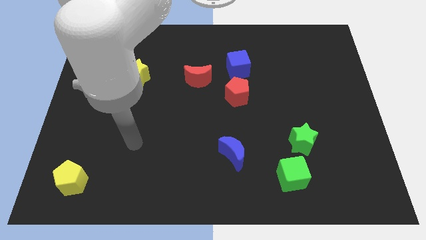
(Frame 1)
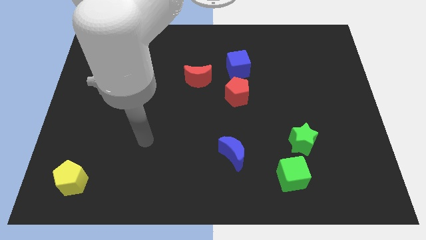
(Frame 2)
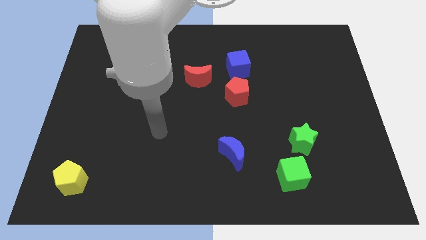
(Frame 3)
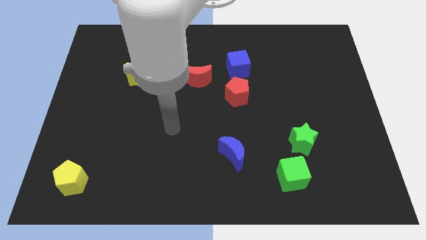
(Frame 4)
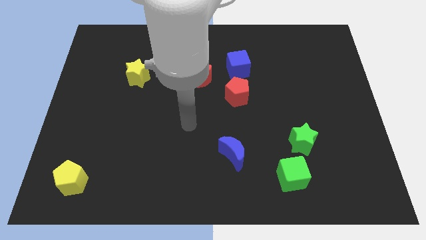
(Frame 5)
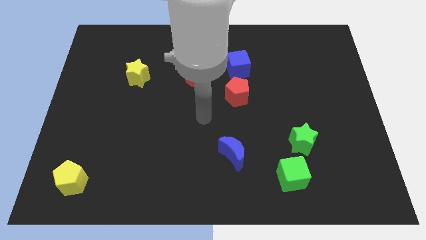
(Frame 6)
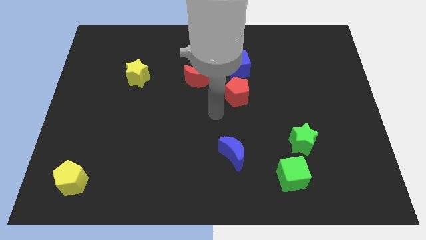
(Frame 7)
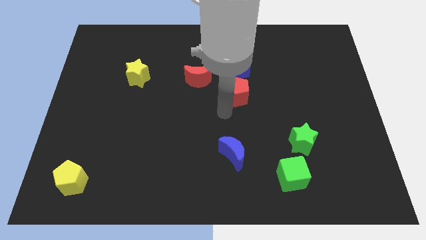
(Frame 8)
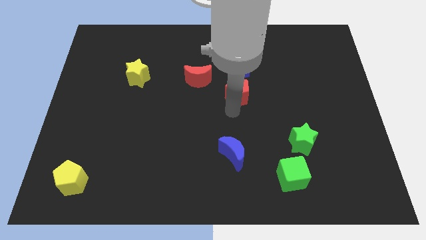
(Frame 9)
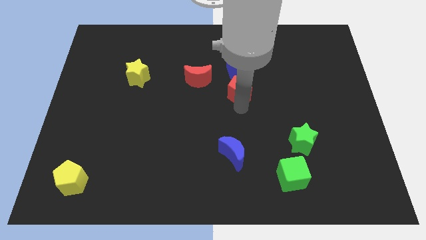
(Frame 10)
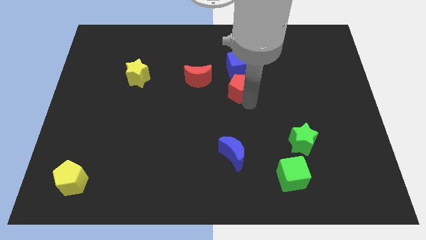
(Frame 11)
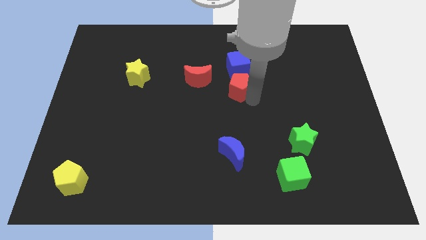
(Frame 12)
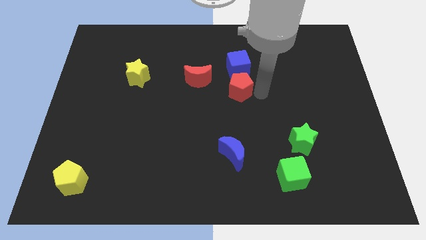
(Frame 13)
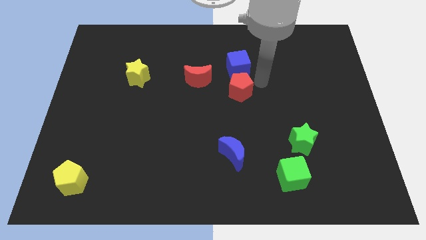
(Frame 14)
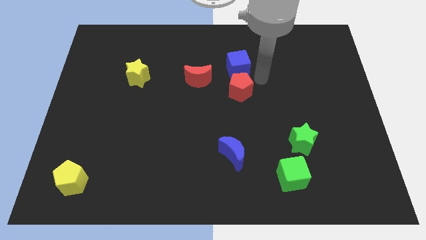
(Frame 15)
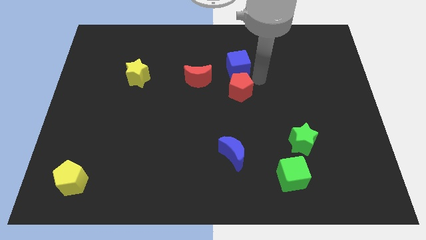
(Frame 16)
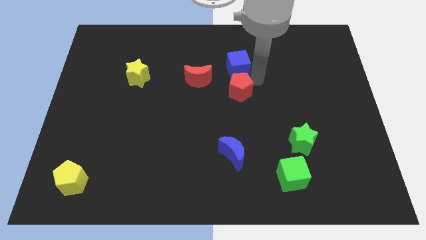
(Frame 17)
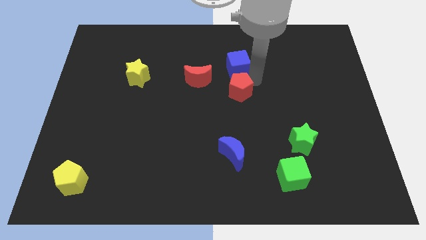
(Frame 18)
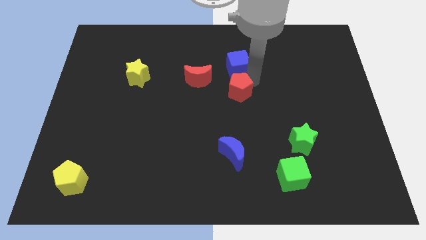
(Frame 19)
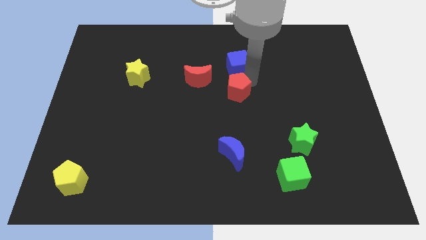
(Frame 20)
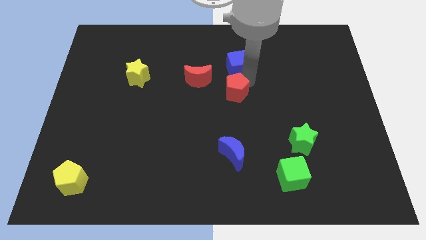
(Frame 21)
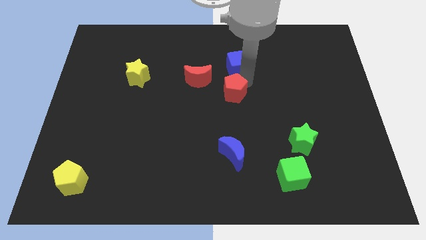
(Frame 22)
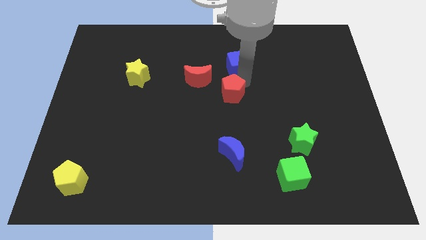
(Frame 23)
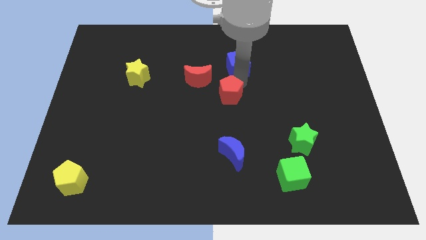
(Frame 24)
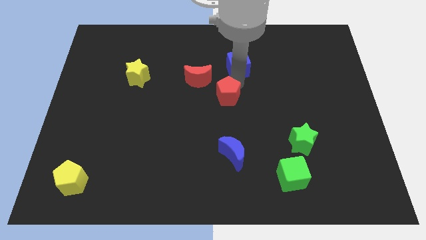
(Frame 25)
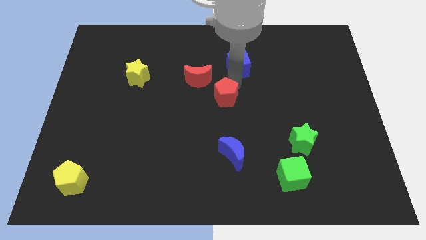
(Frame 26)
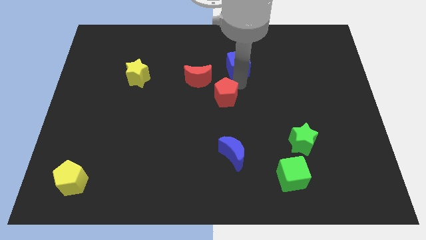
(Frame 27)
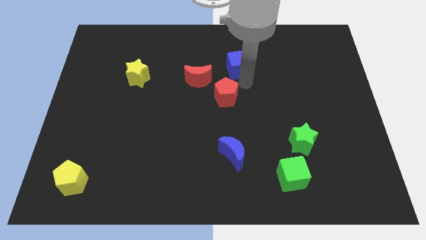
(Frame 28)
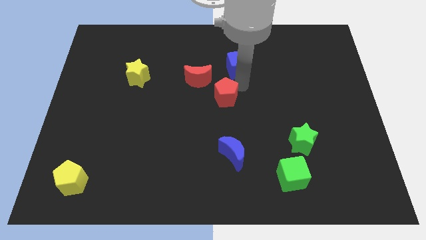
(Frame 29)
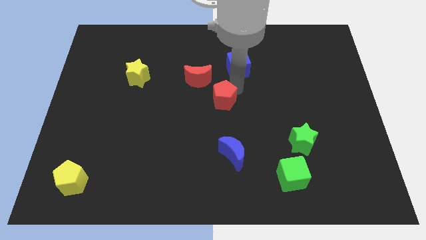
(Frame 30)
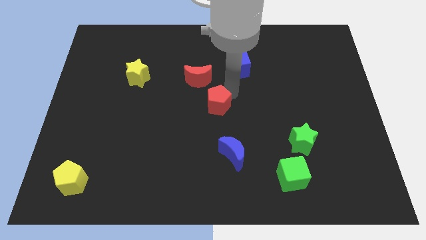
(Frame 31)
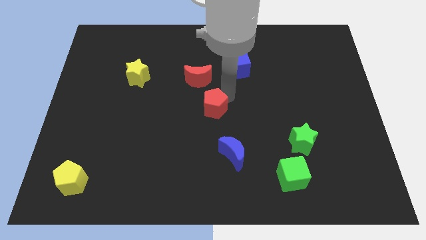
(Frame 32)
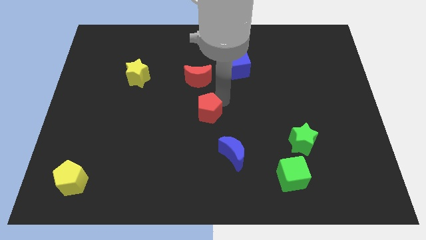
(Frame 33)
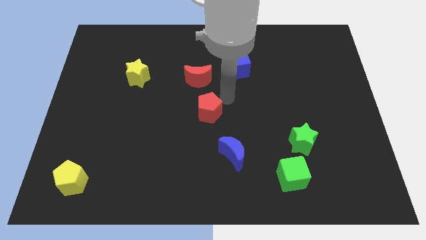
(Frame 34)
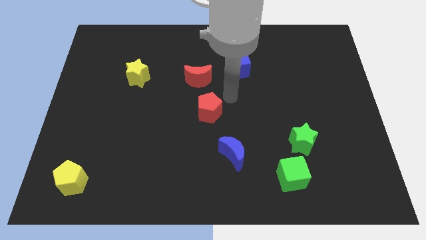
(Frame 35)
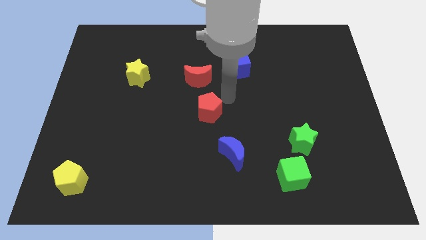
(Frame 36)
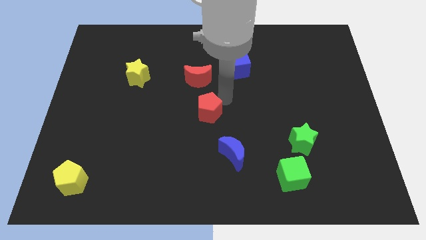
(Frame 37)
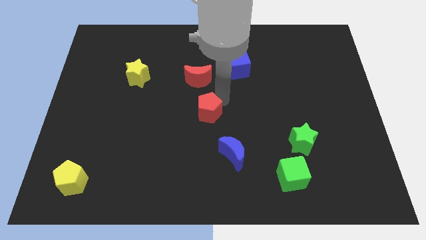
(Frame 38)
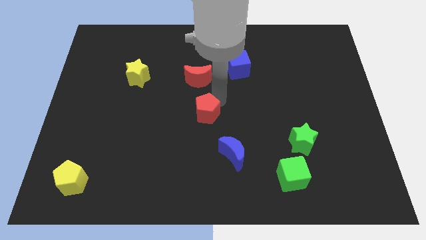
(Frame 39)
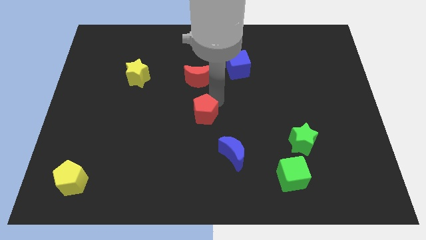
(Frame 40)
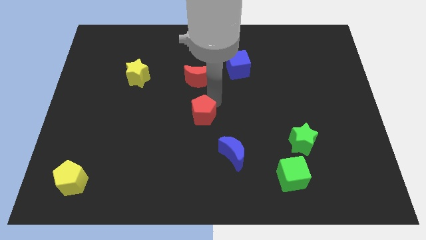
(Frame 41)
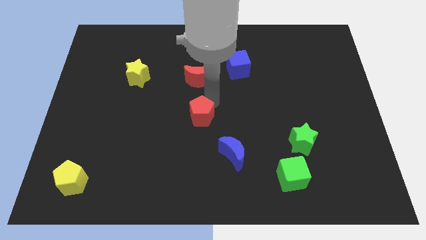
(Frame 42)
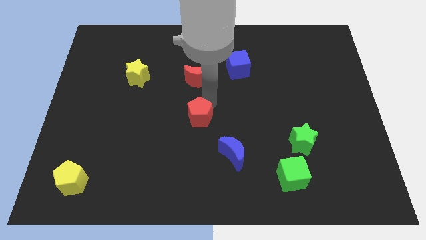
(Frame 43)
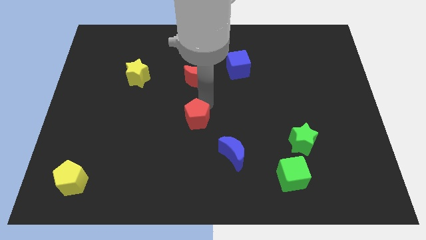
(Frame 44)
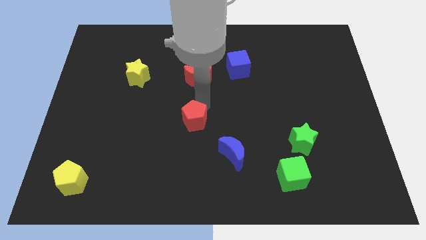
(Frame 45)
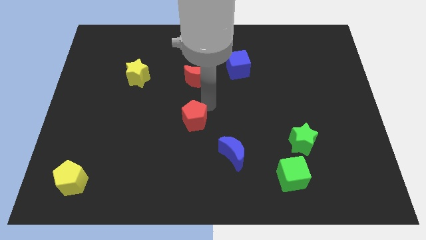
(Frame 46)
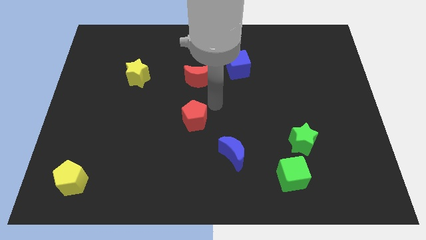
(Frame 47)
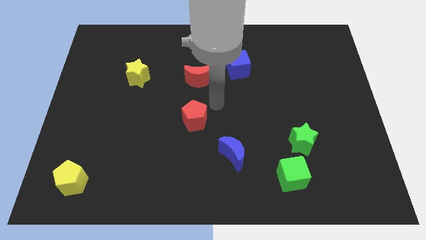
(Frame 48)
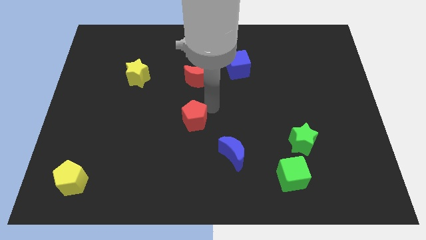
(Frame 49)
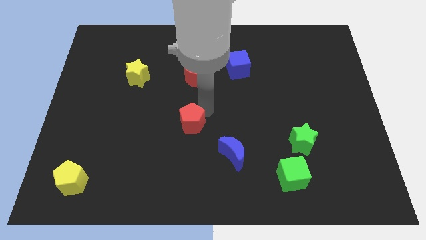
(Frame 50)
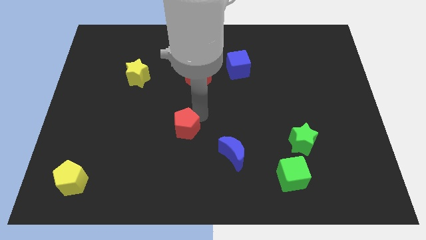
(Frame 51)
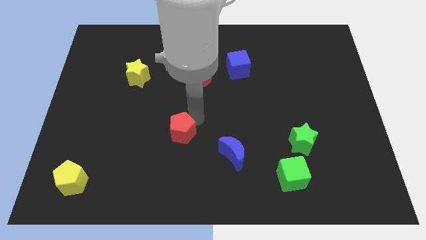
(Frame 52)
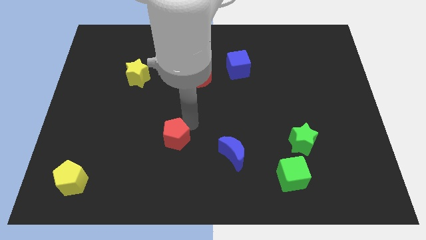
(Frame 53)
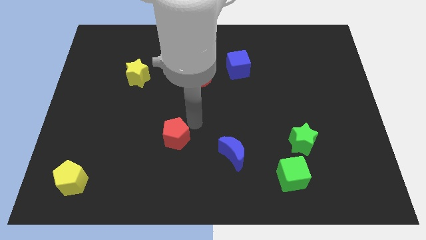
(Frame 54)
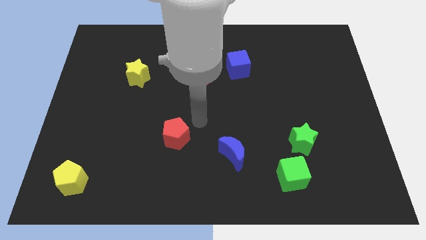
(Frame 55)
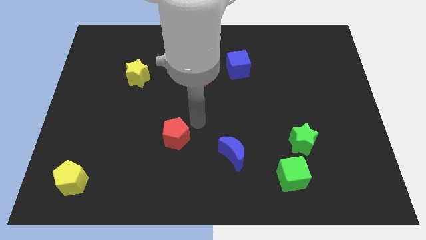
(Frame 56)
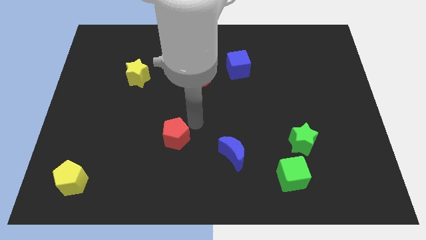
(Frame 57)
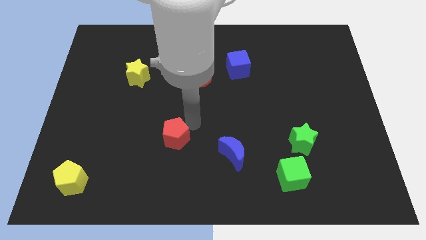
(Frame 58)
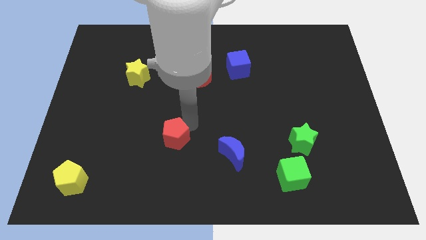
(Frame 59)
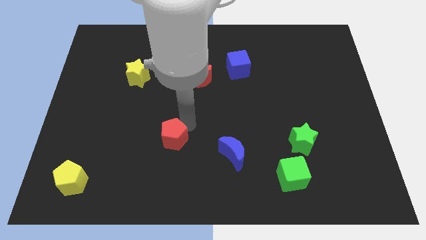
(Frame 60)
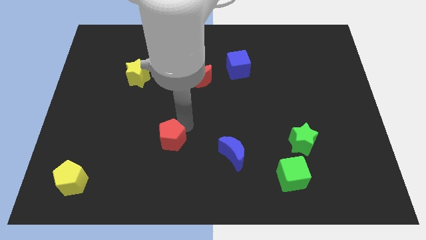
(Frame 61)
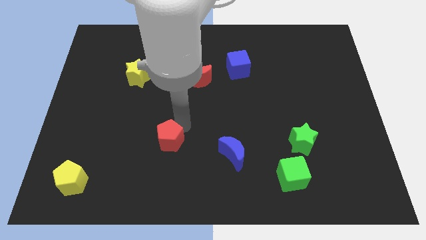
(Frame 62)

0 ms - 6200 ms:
move the red pentagon downwards and to the left diagonally

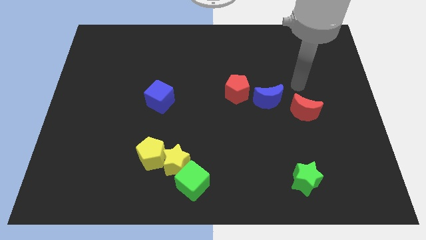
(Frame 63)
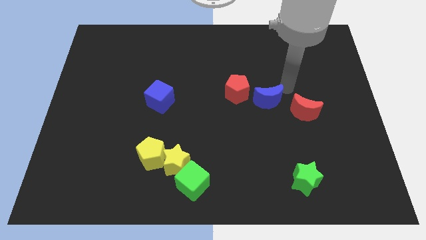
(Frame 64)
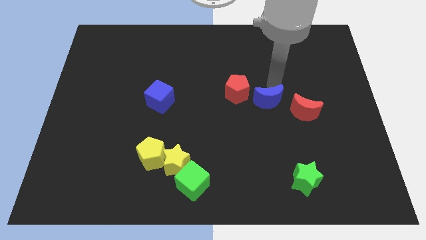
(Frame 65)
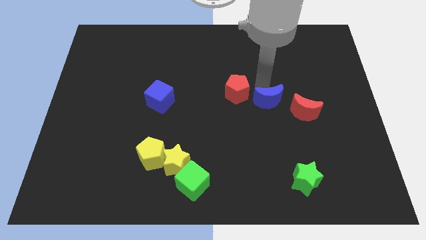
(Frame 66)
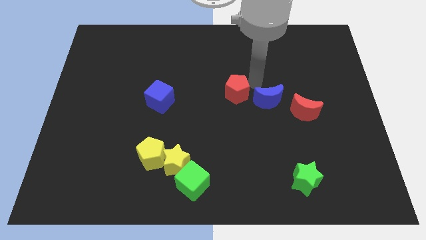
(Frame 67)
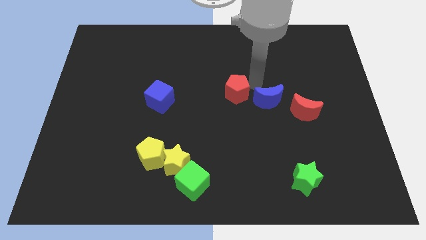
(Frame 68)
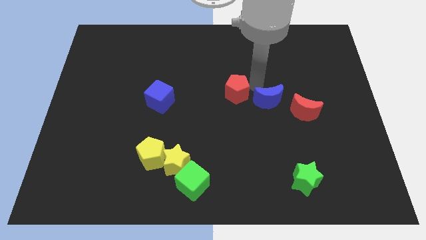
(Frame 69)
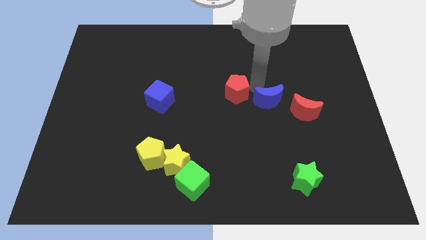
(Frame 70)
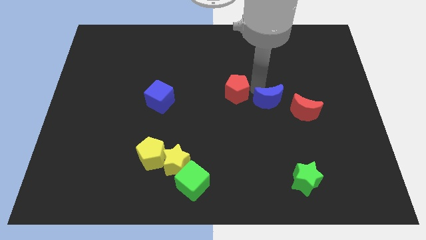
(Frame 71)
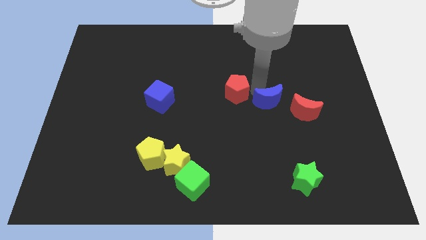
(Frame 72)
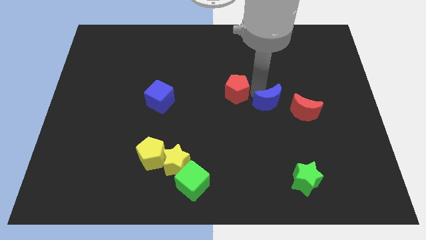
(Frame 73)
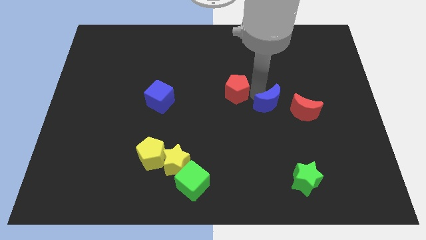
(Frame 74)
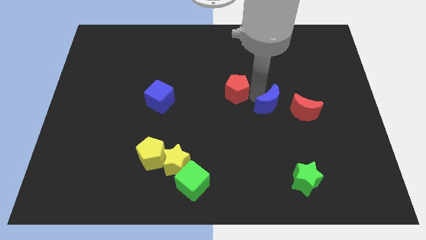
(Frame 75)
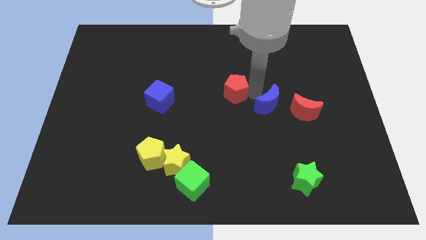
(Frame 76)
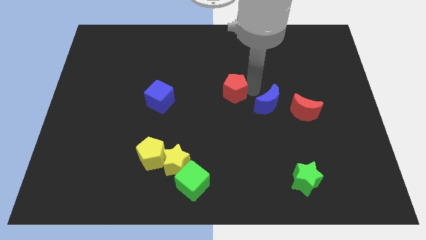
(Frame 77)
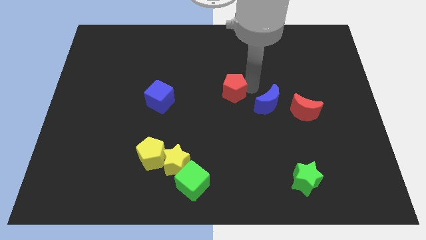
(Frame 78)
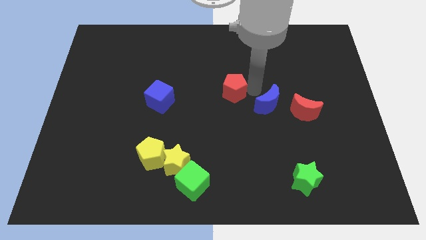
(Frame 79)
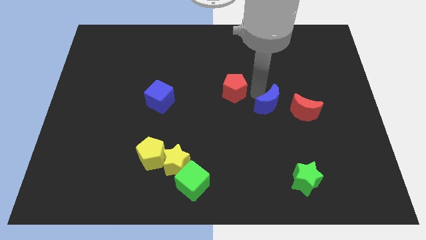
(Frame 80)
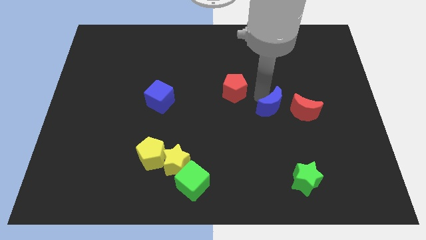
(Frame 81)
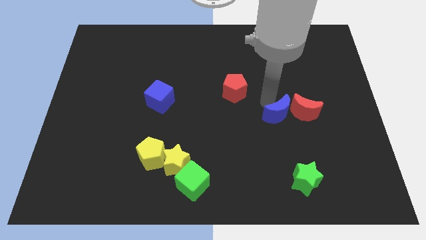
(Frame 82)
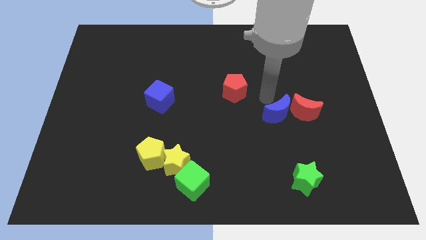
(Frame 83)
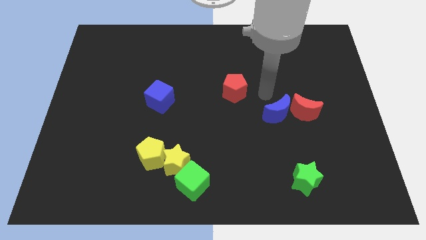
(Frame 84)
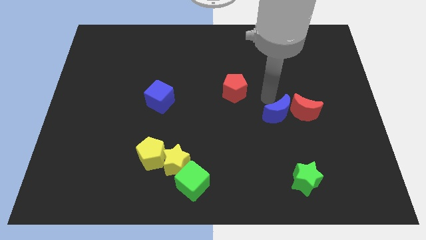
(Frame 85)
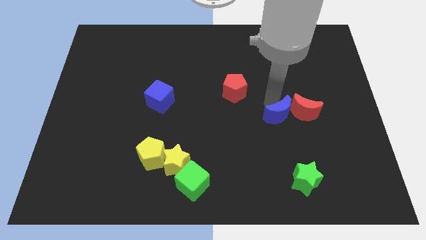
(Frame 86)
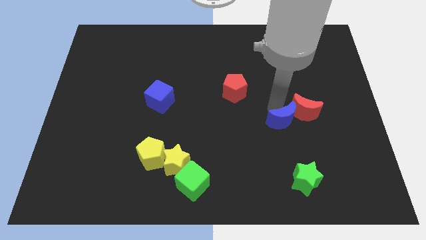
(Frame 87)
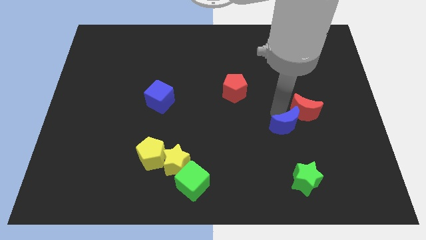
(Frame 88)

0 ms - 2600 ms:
slide the blue moon a bit down
